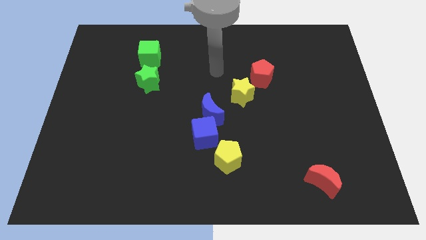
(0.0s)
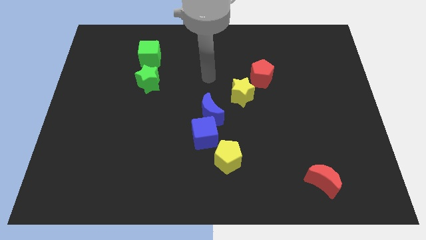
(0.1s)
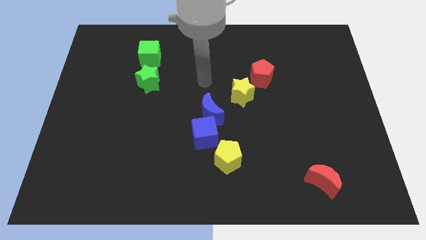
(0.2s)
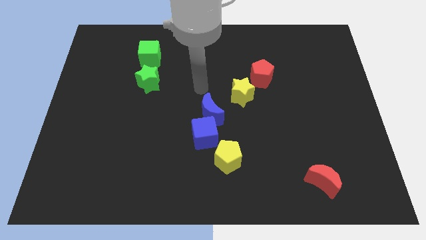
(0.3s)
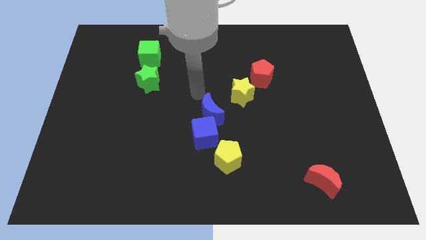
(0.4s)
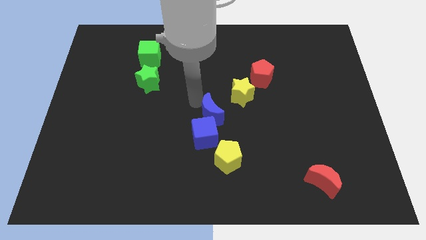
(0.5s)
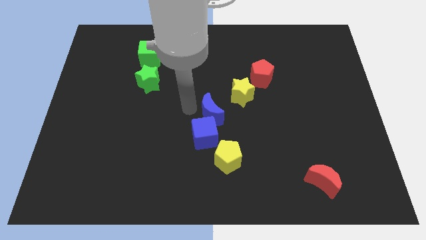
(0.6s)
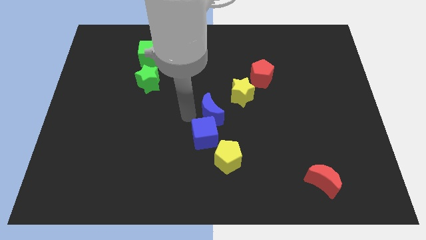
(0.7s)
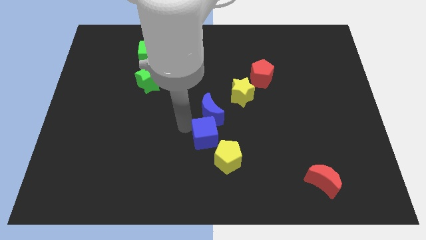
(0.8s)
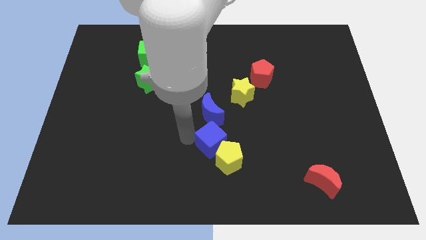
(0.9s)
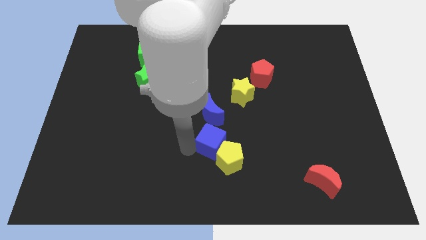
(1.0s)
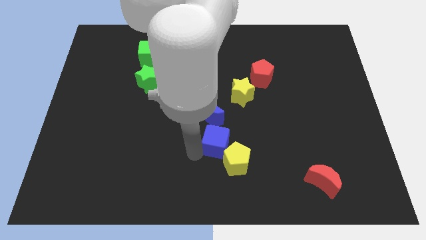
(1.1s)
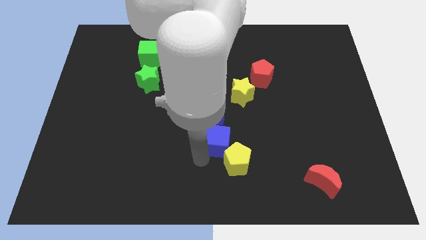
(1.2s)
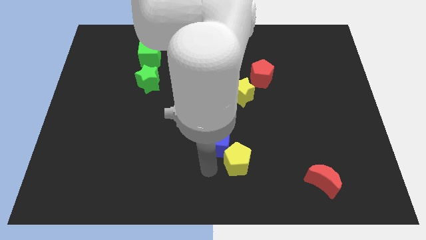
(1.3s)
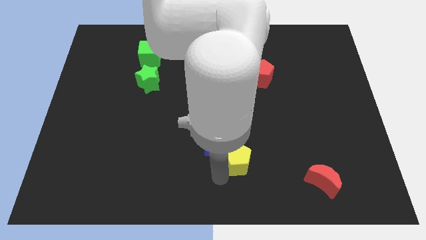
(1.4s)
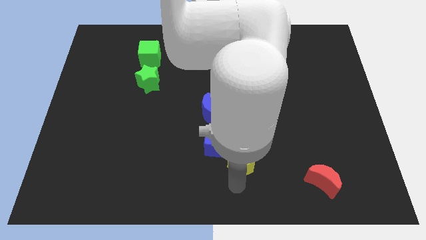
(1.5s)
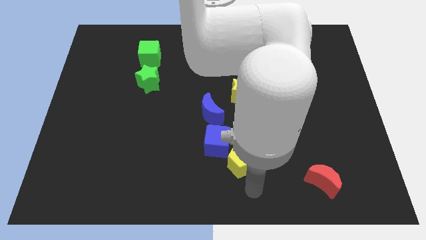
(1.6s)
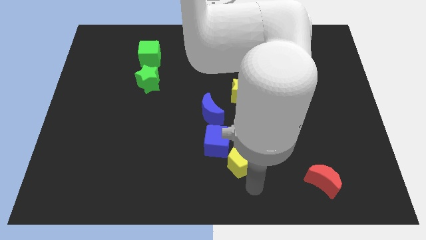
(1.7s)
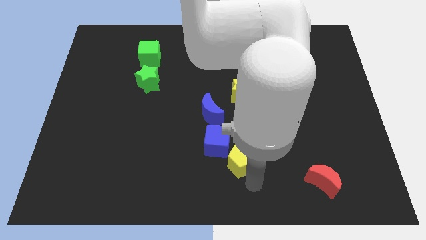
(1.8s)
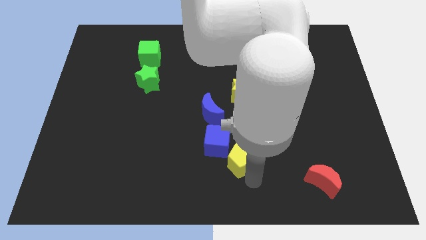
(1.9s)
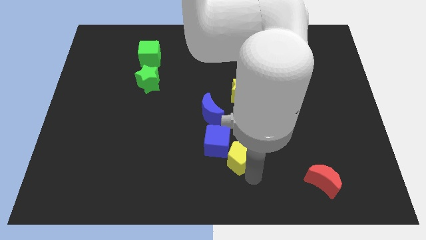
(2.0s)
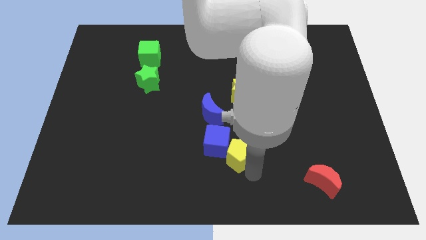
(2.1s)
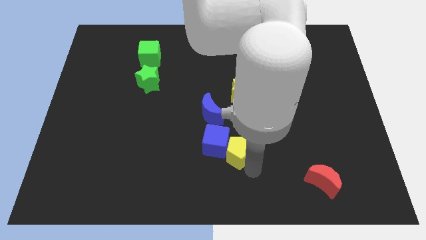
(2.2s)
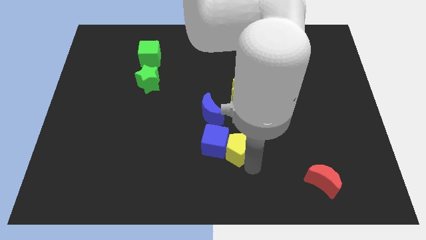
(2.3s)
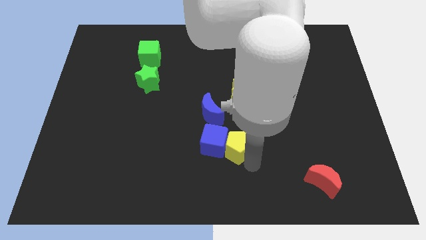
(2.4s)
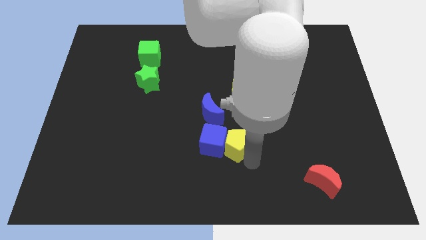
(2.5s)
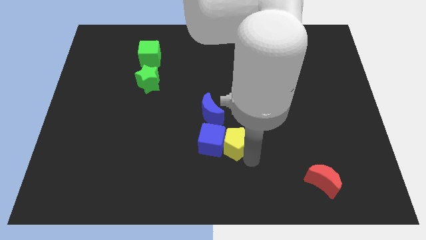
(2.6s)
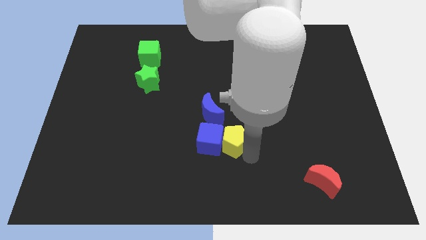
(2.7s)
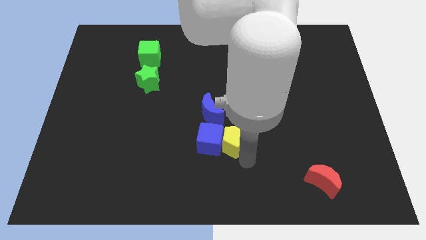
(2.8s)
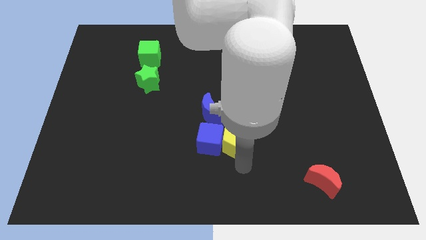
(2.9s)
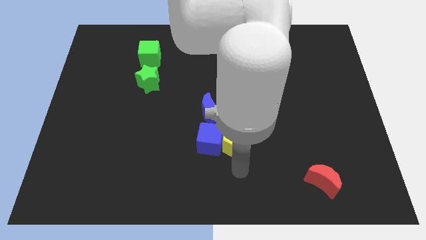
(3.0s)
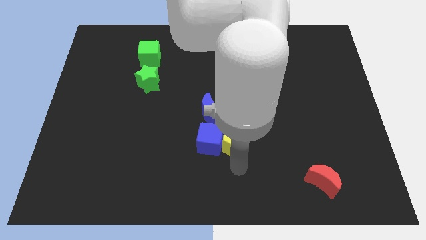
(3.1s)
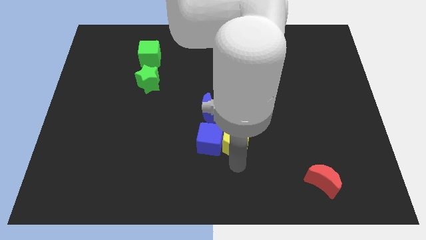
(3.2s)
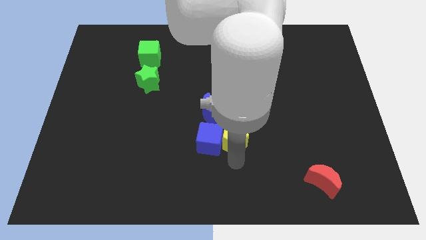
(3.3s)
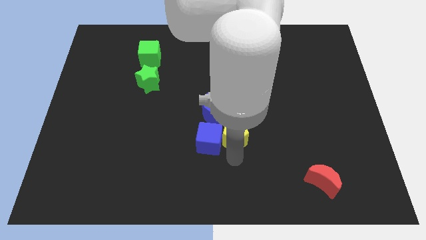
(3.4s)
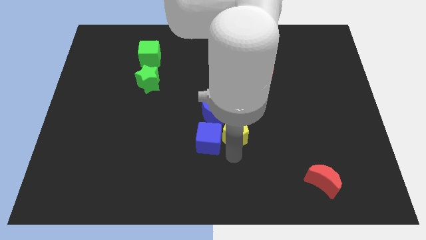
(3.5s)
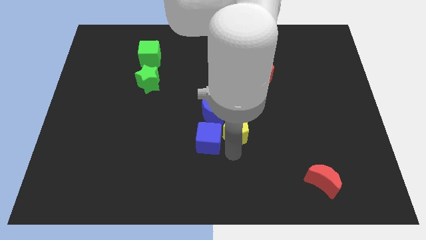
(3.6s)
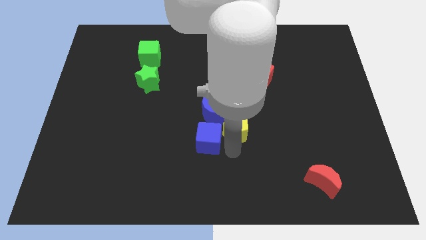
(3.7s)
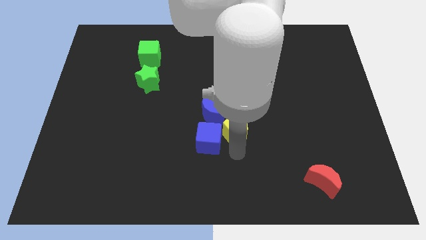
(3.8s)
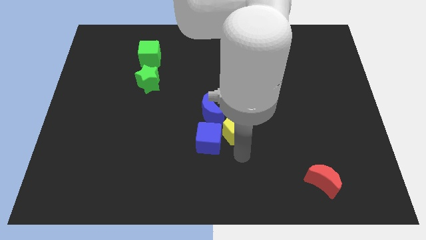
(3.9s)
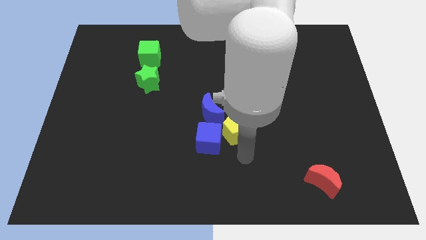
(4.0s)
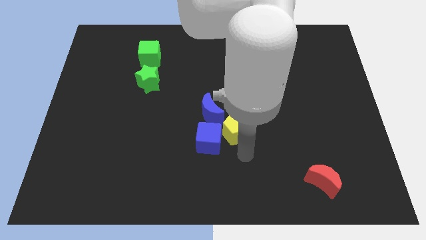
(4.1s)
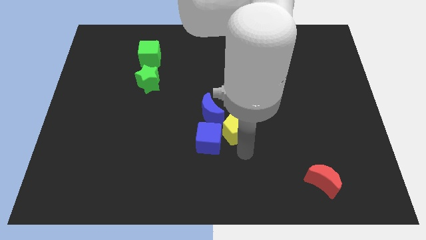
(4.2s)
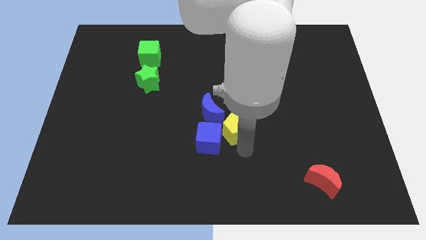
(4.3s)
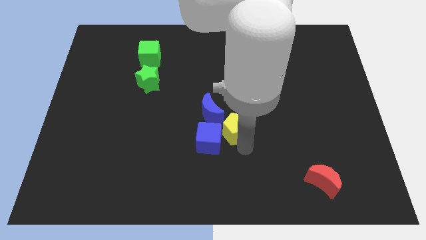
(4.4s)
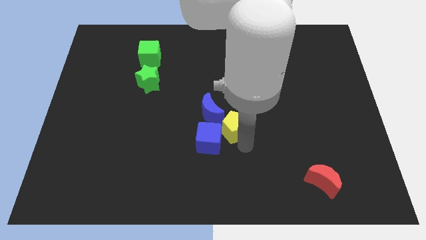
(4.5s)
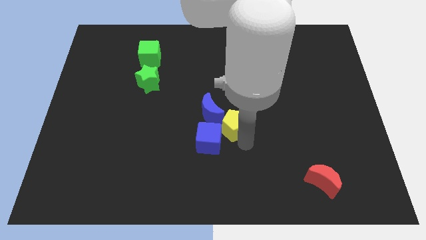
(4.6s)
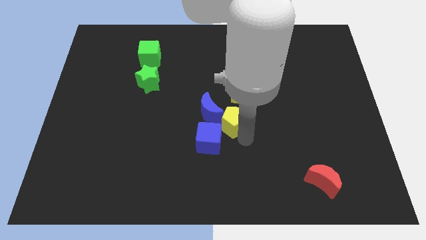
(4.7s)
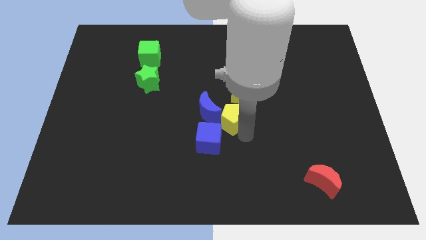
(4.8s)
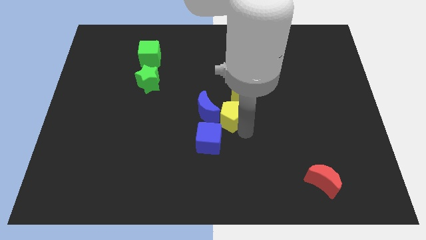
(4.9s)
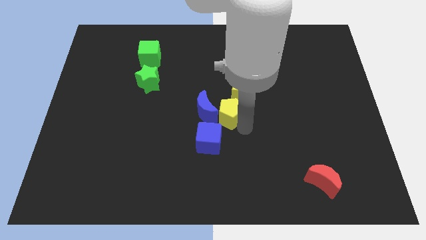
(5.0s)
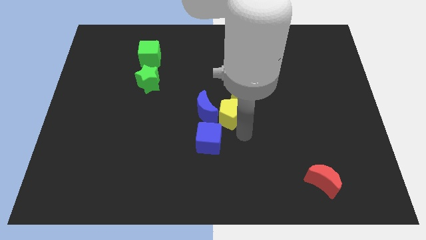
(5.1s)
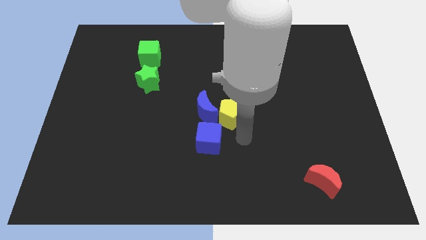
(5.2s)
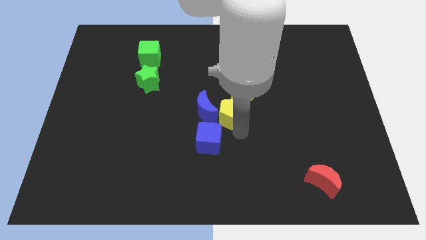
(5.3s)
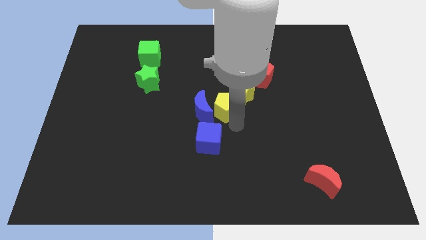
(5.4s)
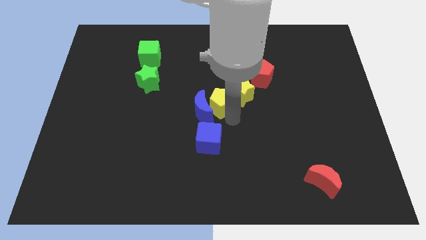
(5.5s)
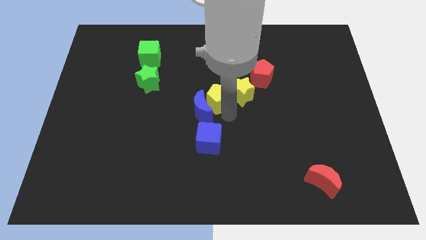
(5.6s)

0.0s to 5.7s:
move the yellow pentagon to the top of the blue moon
